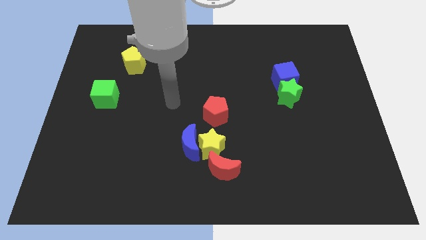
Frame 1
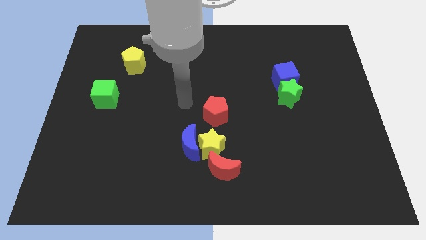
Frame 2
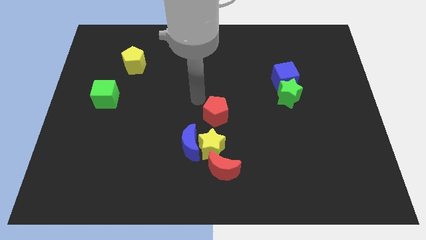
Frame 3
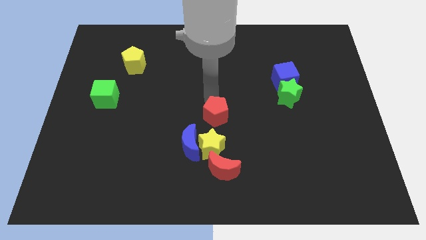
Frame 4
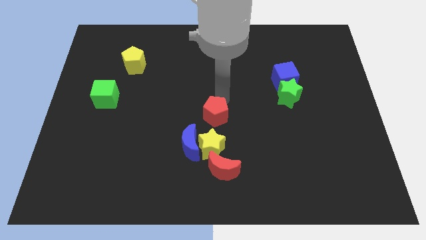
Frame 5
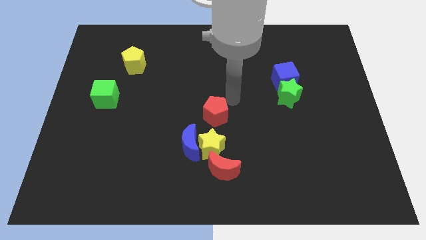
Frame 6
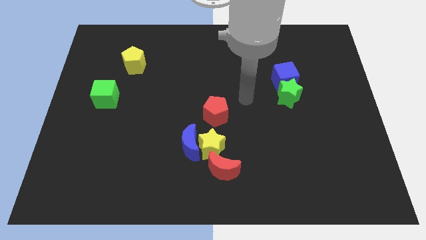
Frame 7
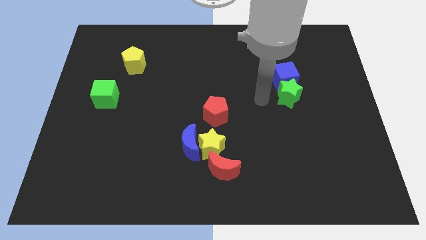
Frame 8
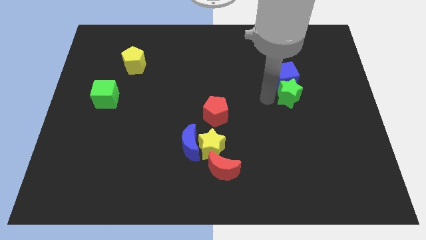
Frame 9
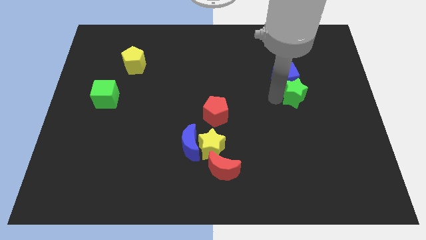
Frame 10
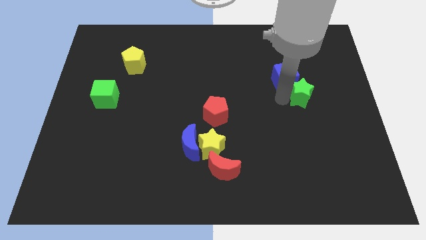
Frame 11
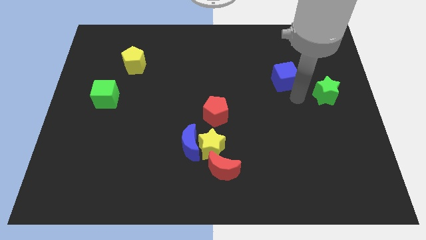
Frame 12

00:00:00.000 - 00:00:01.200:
move the blue cube away from the green star

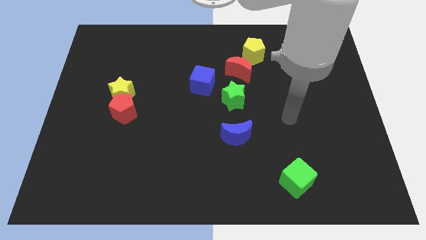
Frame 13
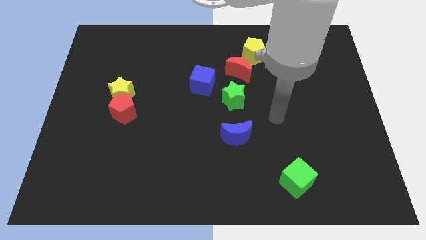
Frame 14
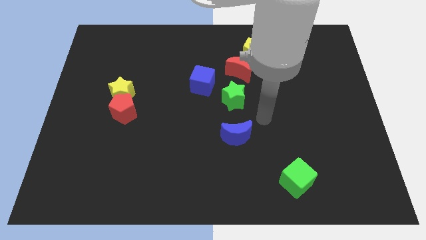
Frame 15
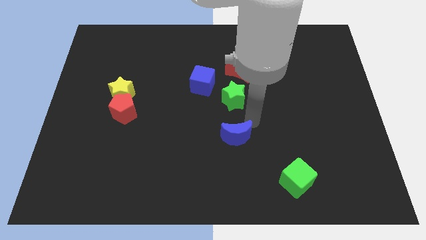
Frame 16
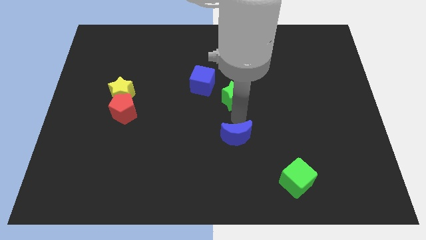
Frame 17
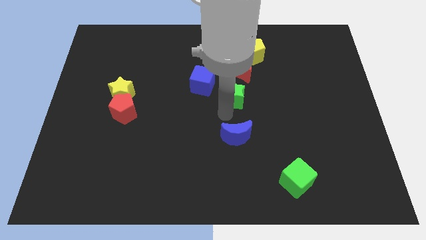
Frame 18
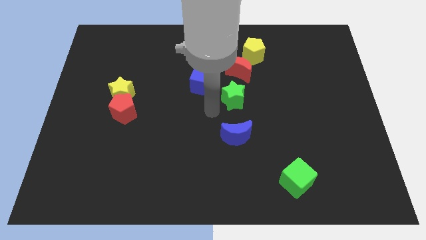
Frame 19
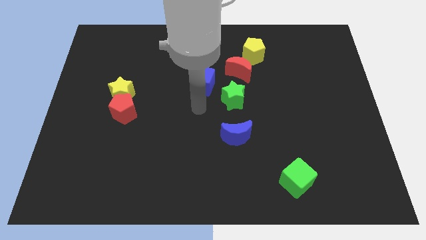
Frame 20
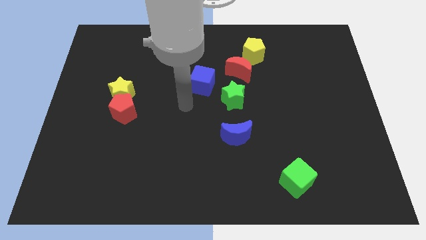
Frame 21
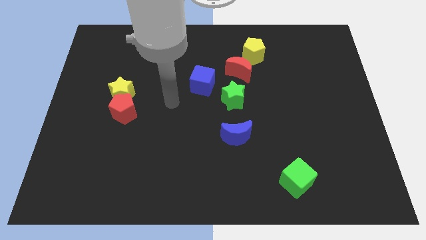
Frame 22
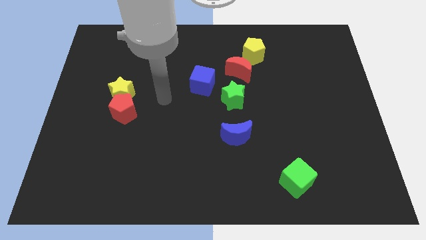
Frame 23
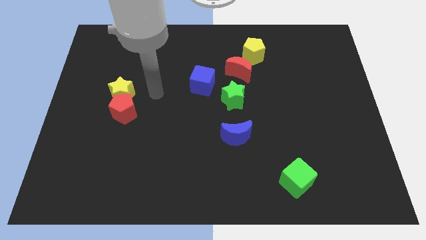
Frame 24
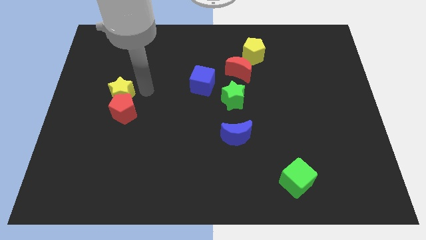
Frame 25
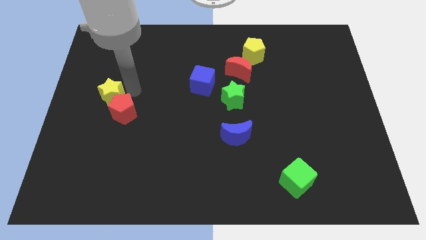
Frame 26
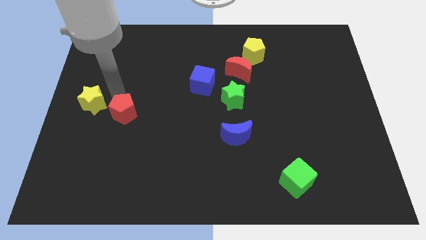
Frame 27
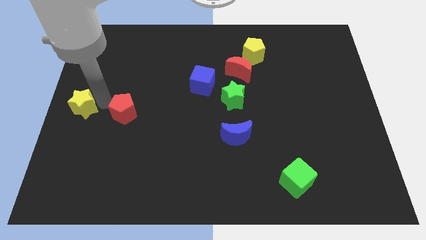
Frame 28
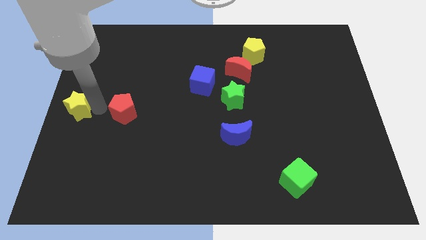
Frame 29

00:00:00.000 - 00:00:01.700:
separate the red pentagon from the yellow star

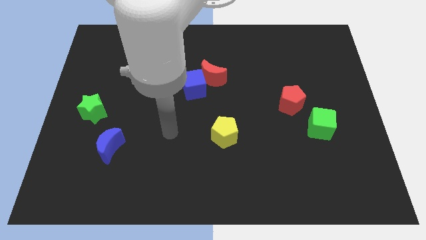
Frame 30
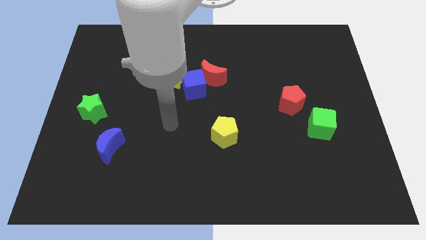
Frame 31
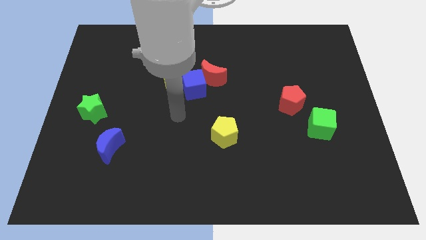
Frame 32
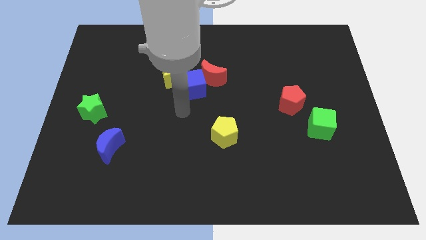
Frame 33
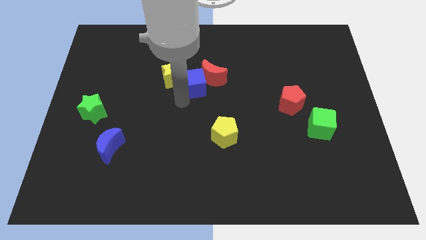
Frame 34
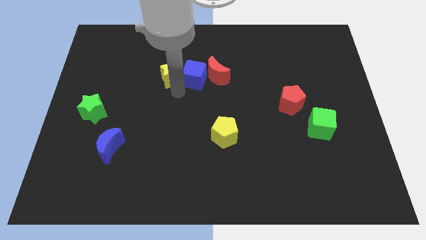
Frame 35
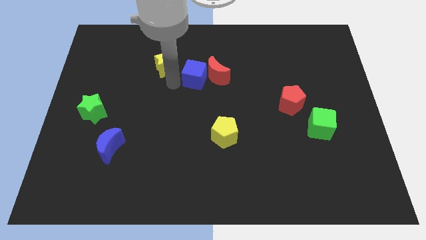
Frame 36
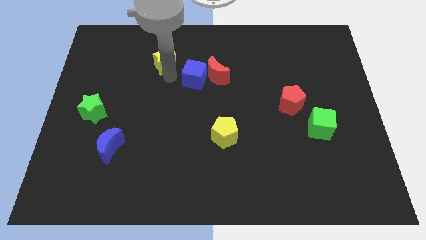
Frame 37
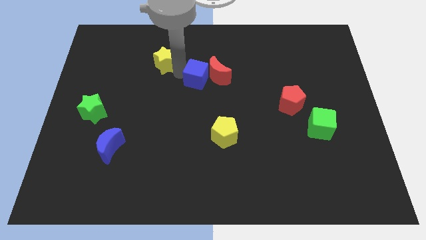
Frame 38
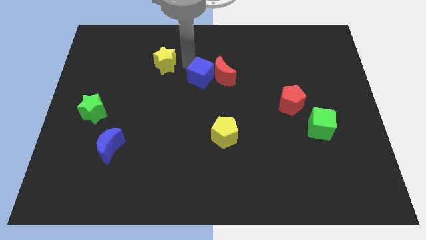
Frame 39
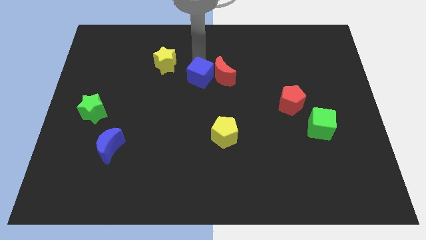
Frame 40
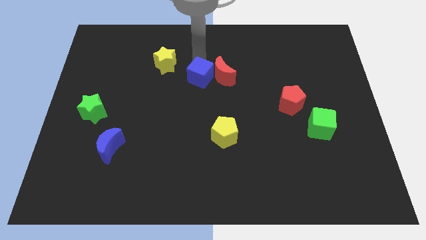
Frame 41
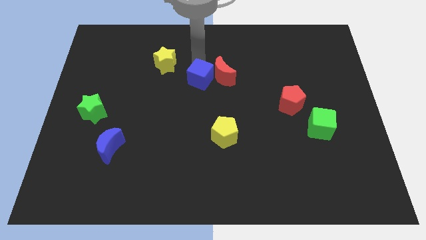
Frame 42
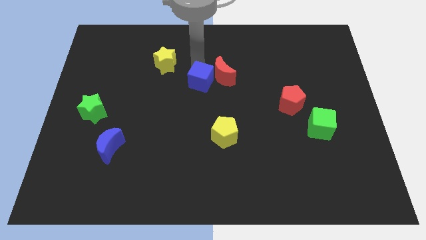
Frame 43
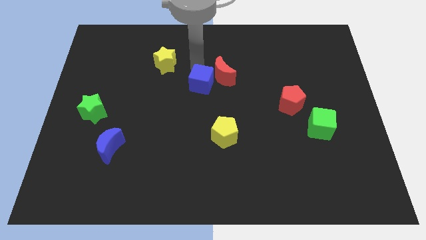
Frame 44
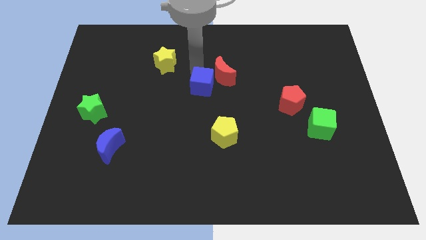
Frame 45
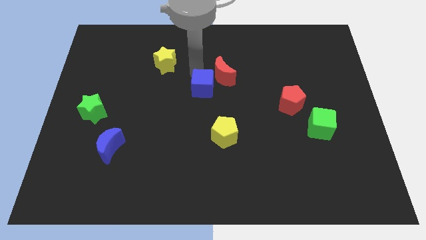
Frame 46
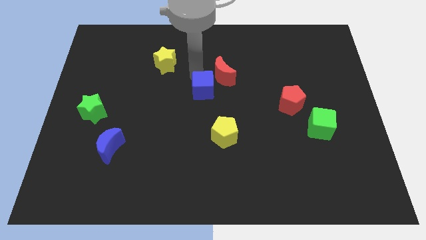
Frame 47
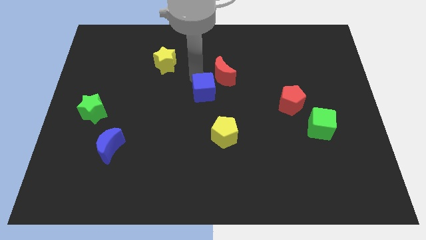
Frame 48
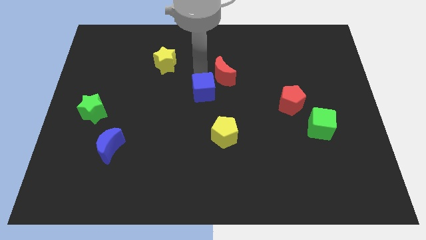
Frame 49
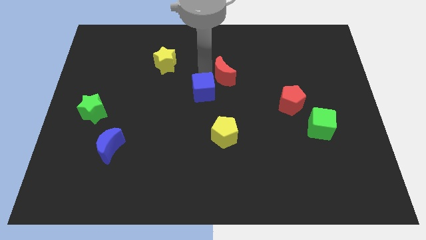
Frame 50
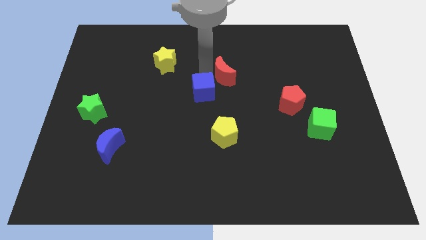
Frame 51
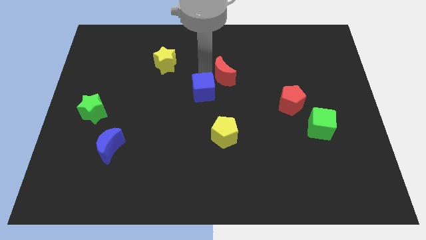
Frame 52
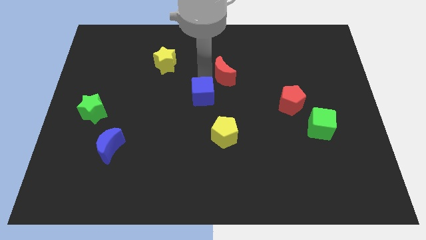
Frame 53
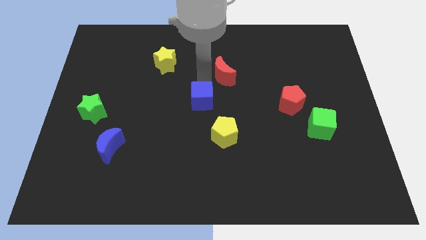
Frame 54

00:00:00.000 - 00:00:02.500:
separate the blue cube from the red moon and yellow star

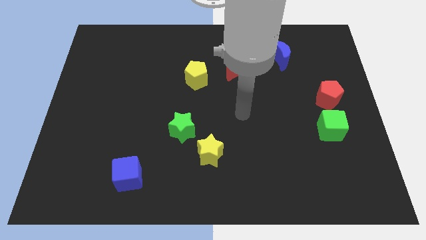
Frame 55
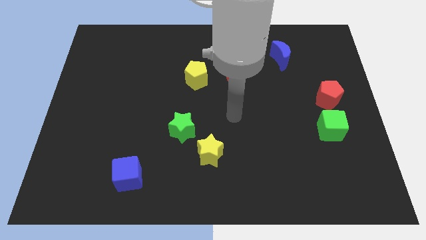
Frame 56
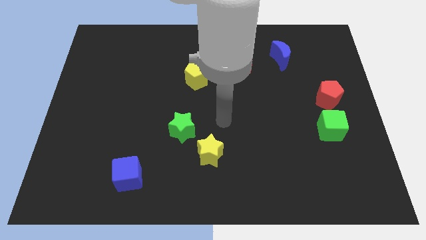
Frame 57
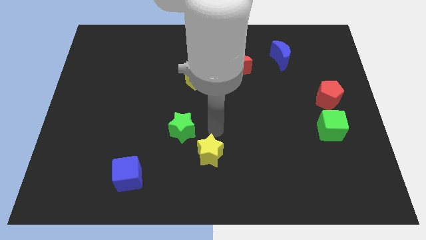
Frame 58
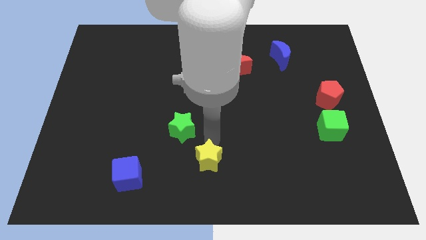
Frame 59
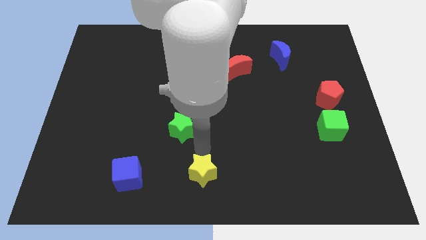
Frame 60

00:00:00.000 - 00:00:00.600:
separate the green star from the yellow star

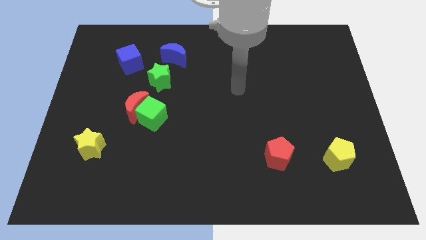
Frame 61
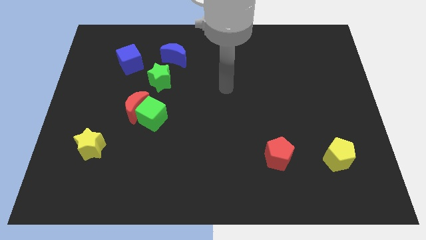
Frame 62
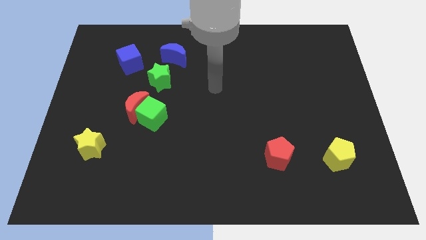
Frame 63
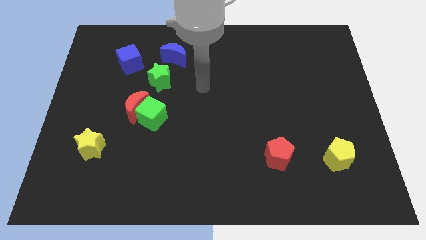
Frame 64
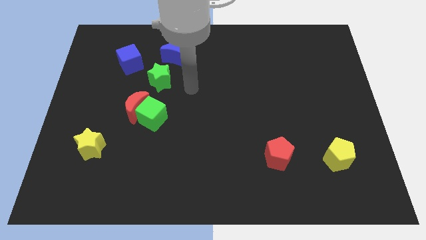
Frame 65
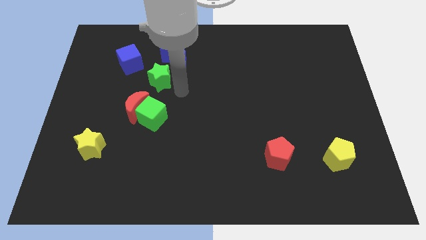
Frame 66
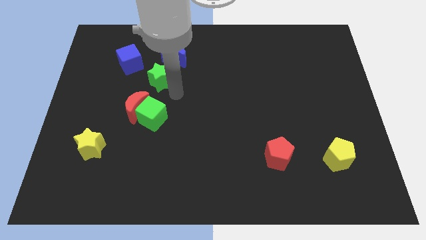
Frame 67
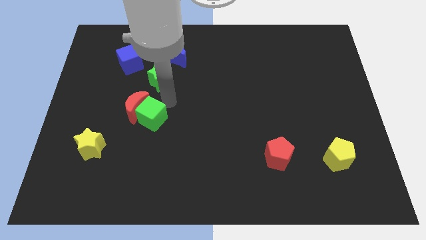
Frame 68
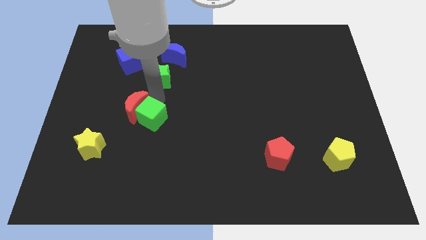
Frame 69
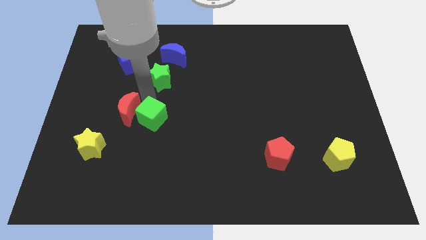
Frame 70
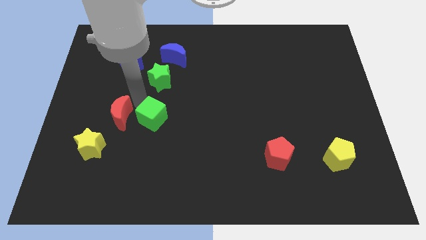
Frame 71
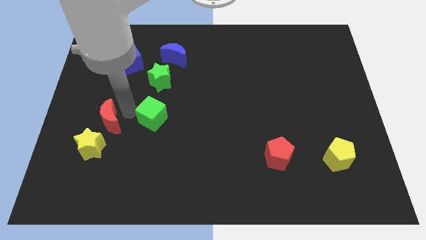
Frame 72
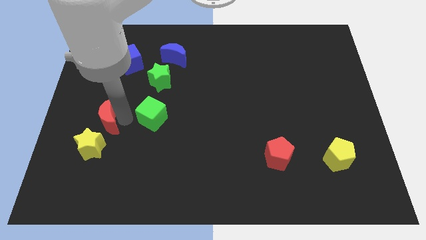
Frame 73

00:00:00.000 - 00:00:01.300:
separate the green cube from the red moon

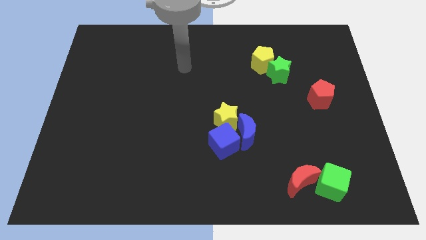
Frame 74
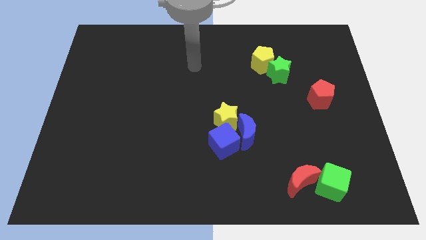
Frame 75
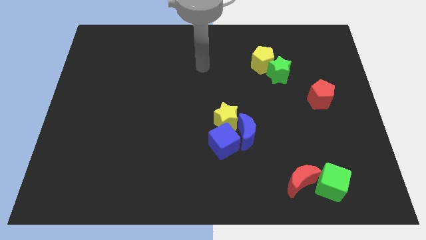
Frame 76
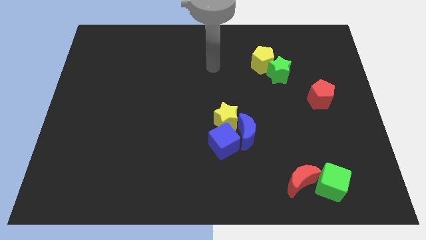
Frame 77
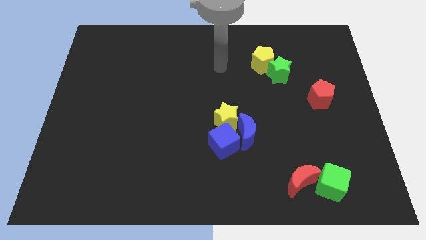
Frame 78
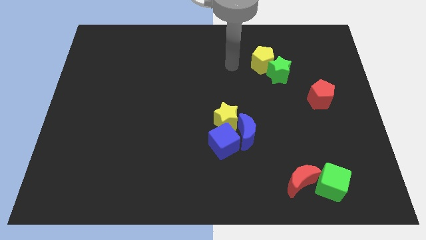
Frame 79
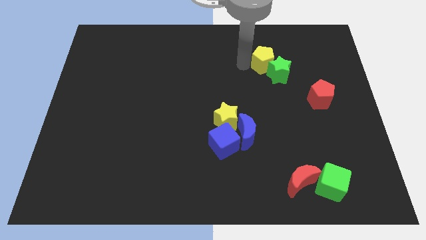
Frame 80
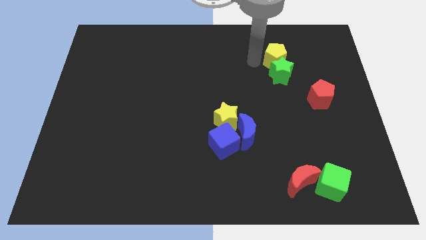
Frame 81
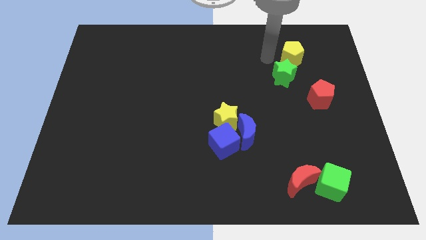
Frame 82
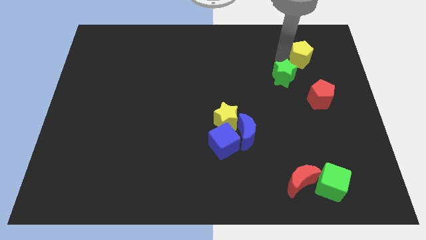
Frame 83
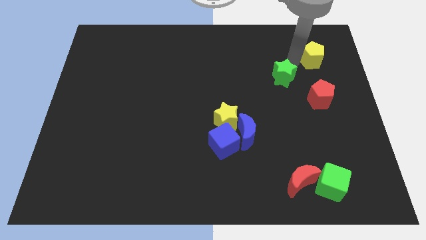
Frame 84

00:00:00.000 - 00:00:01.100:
move the green star away from the yellow pentagon

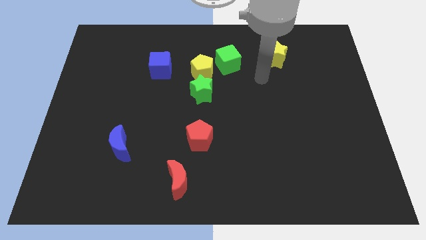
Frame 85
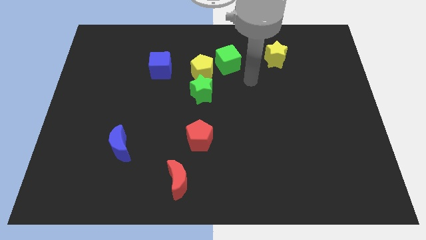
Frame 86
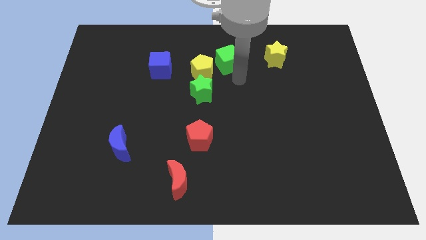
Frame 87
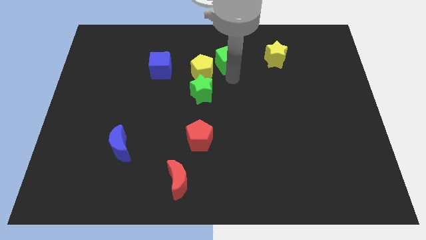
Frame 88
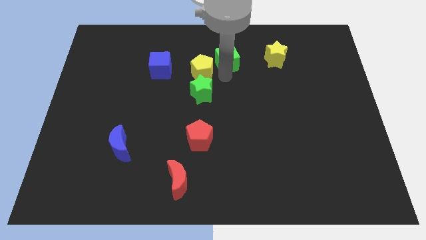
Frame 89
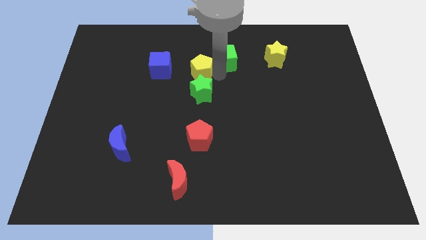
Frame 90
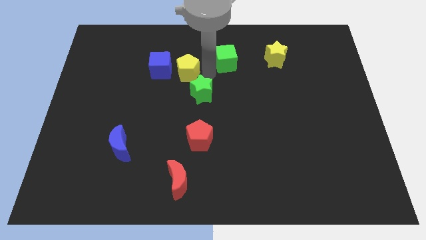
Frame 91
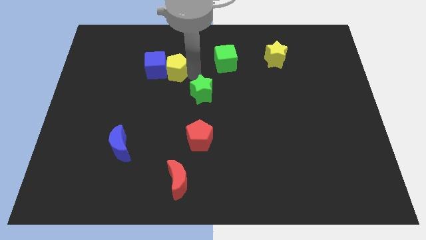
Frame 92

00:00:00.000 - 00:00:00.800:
pull the green star apart from the yellow pentagon

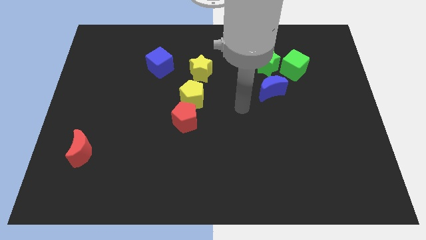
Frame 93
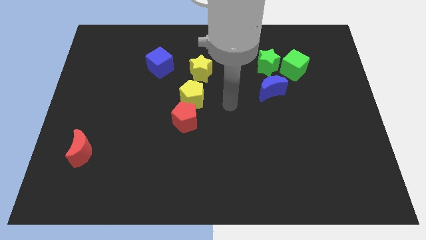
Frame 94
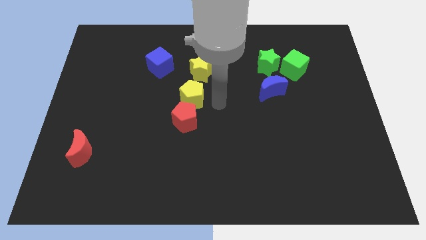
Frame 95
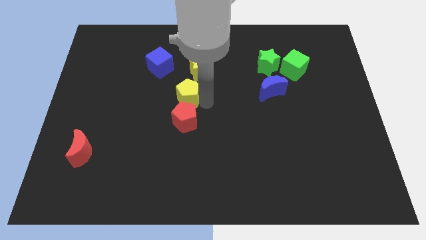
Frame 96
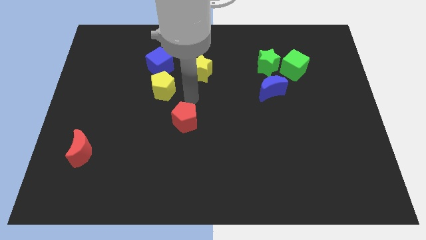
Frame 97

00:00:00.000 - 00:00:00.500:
separate the red pentagon from the yellow pentagon
